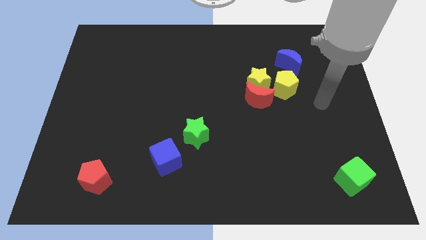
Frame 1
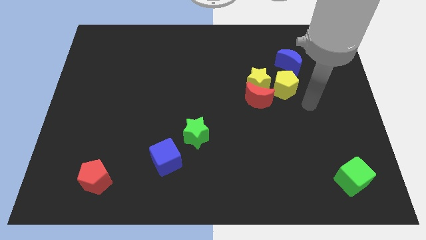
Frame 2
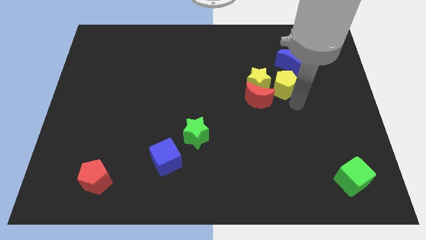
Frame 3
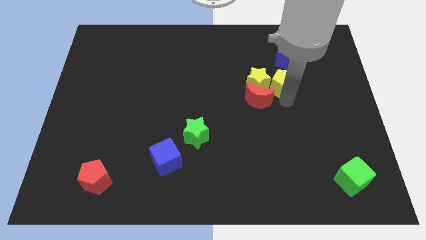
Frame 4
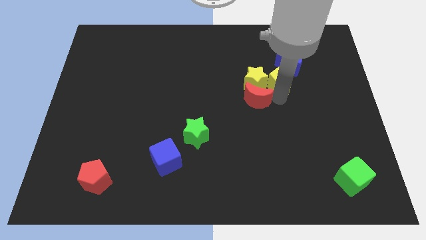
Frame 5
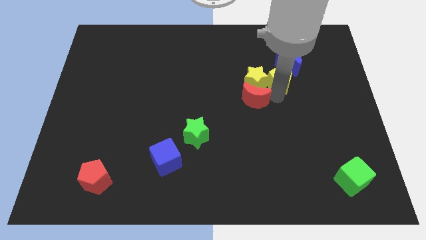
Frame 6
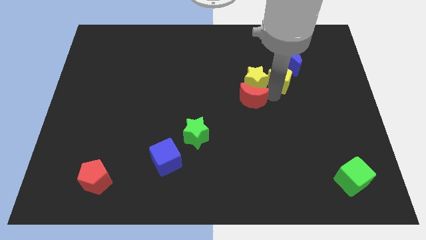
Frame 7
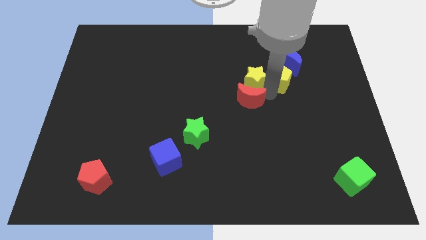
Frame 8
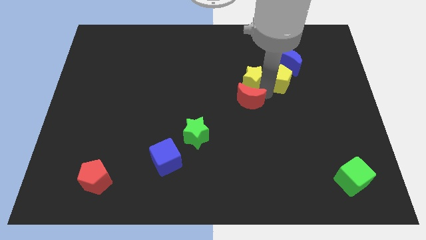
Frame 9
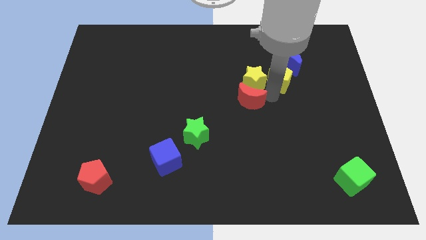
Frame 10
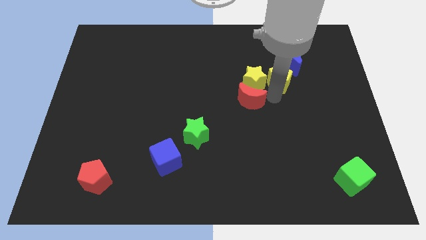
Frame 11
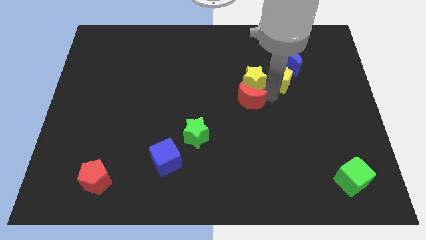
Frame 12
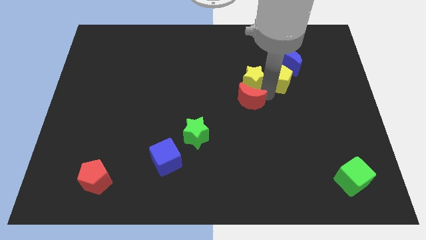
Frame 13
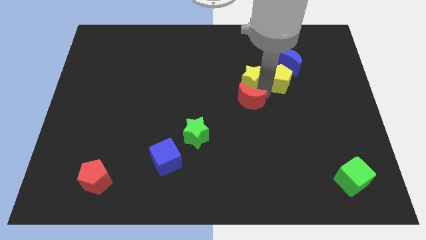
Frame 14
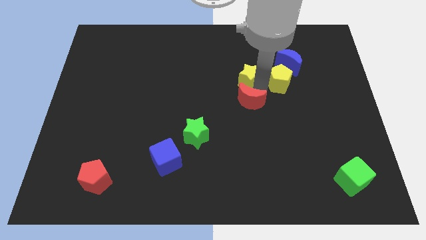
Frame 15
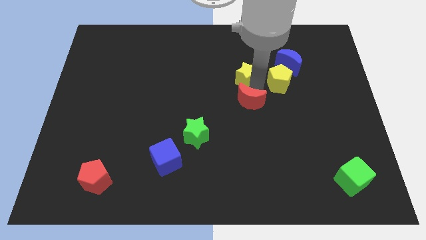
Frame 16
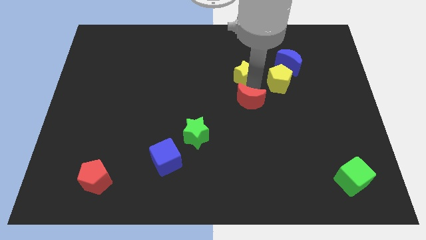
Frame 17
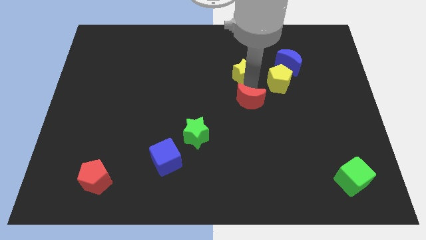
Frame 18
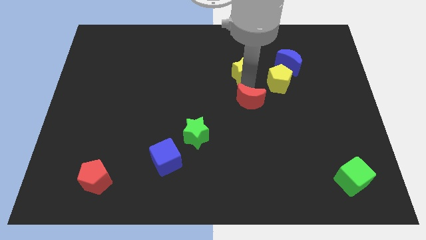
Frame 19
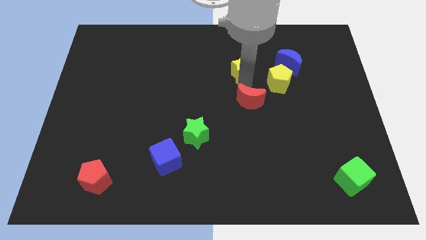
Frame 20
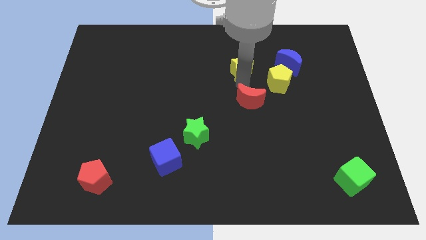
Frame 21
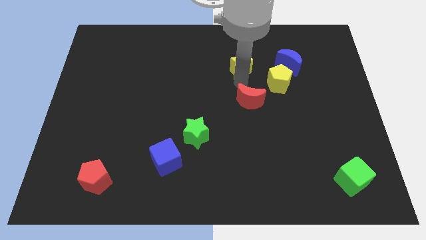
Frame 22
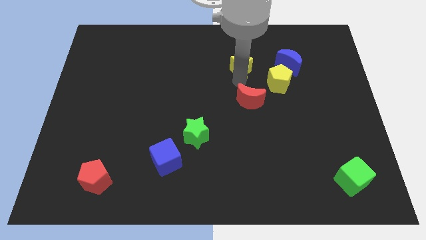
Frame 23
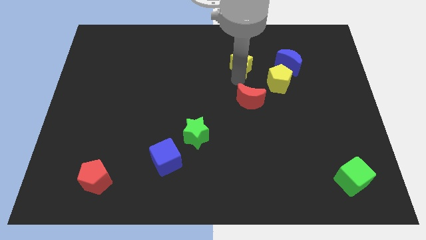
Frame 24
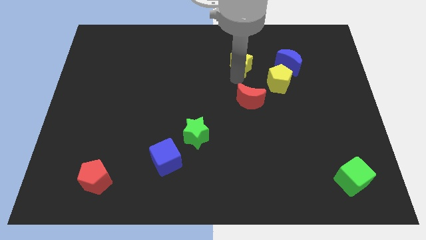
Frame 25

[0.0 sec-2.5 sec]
separate the yellow star from the red moon and yellow pentagon

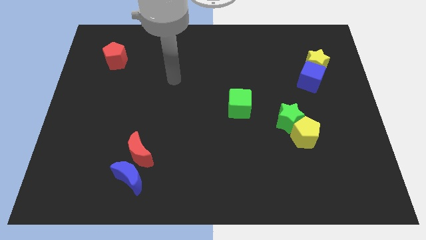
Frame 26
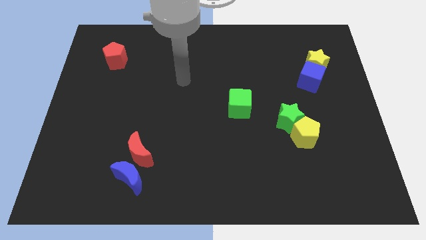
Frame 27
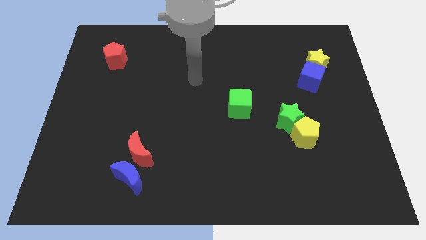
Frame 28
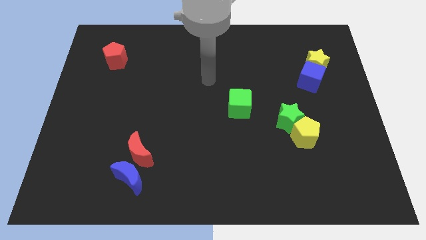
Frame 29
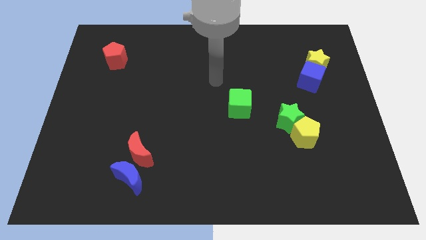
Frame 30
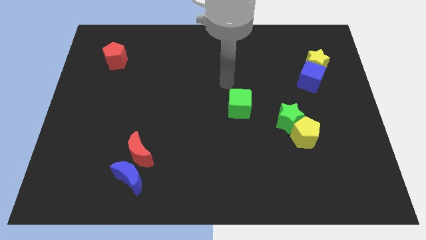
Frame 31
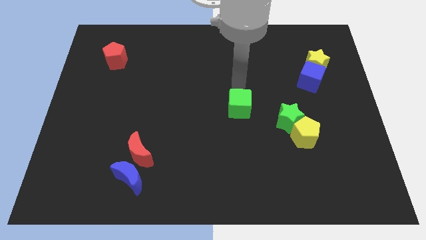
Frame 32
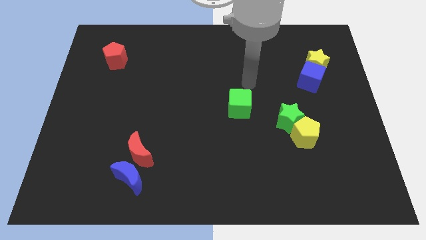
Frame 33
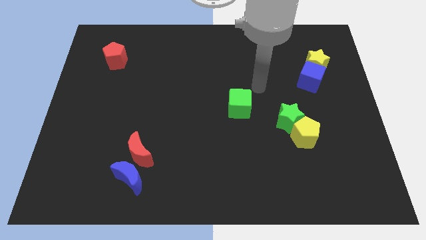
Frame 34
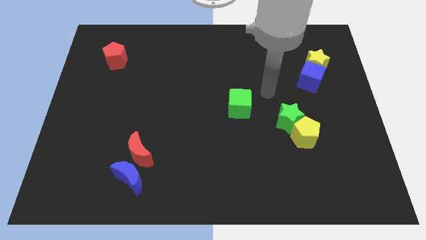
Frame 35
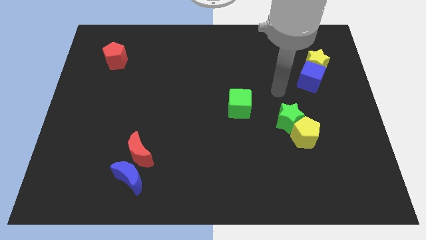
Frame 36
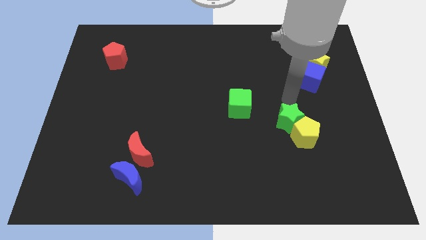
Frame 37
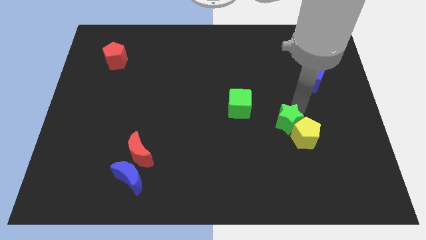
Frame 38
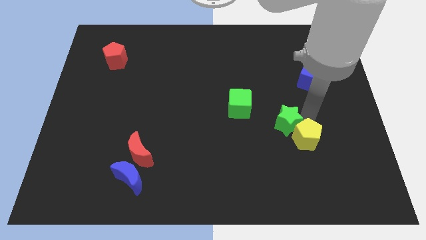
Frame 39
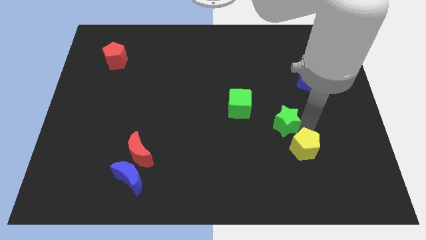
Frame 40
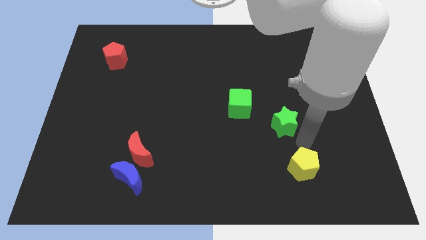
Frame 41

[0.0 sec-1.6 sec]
separate the green star from the yellow pentagon

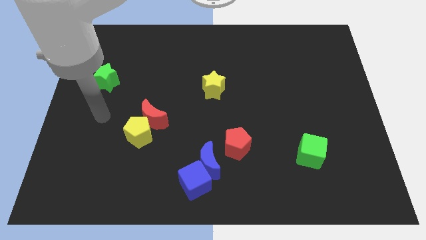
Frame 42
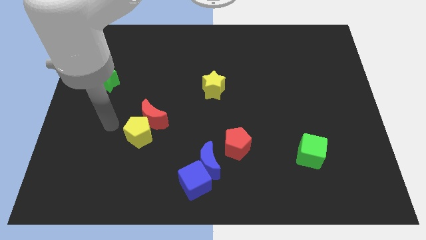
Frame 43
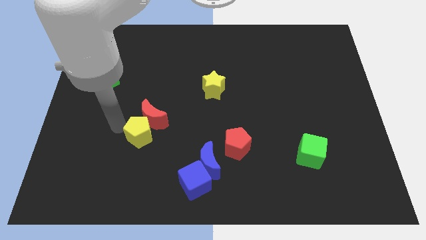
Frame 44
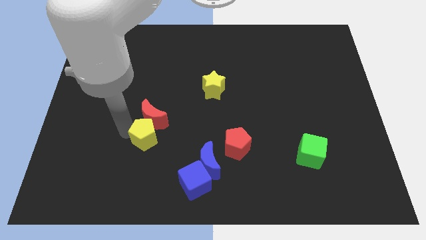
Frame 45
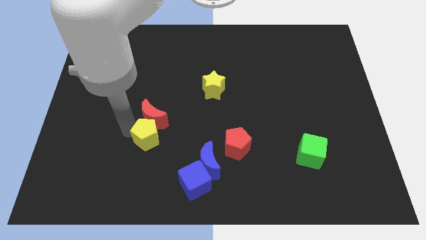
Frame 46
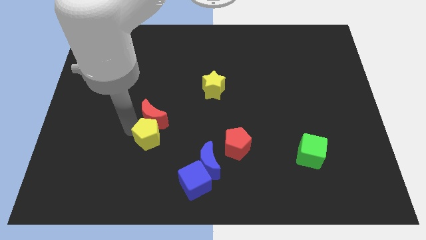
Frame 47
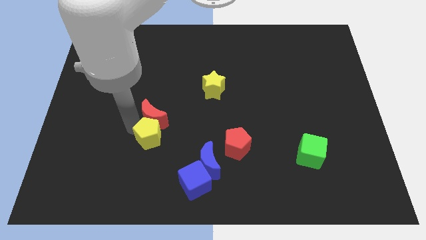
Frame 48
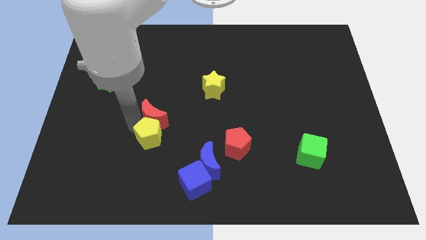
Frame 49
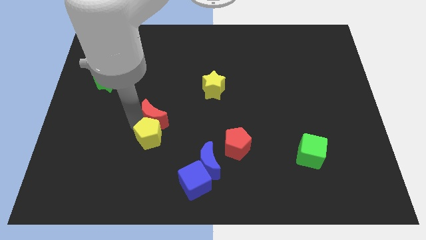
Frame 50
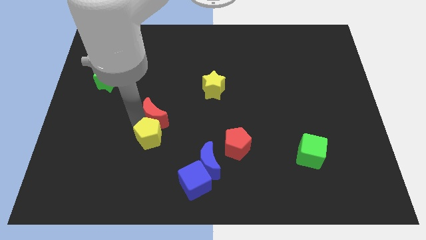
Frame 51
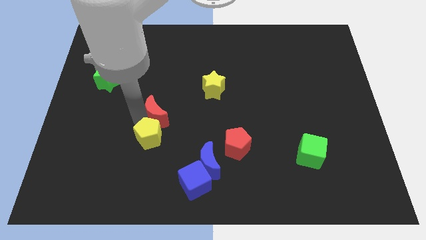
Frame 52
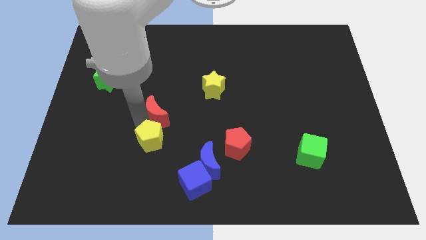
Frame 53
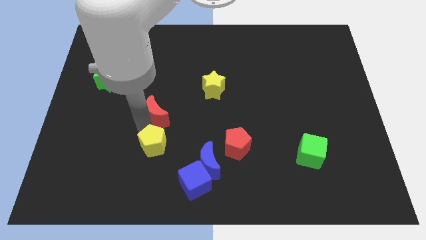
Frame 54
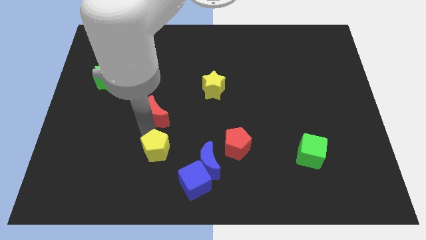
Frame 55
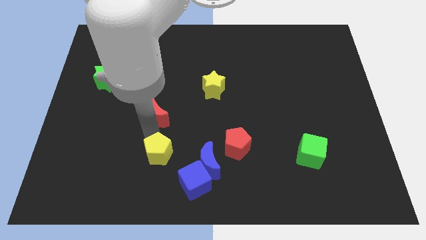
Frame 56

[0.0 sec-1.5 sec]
separate the red moon from the yellow pentagon

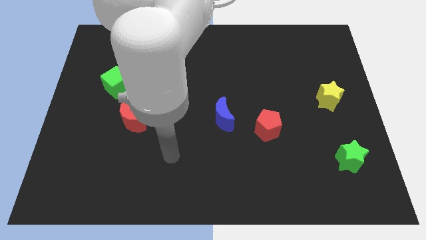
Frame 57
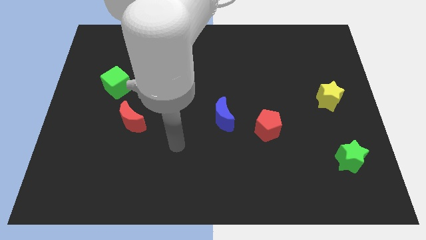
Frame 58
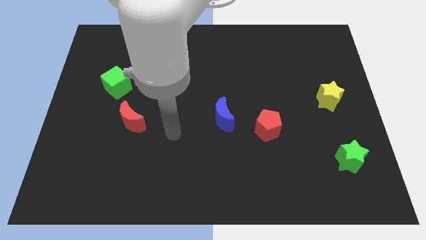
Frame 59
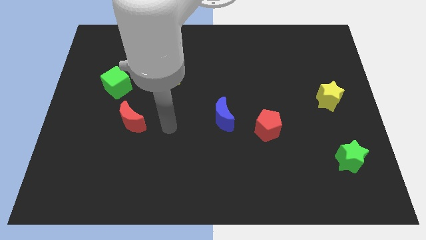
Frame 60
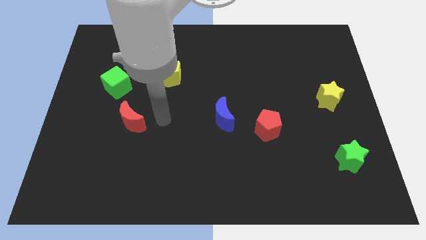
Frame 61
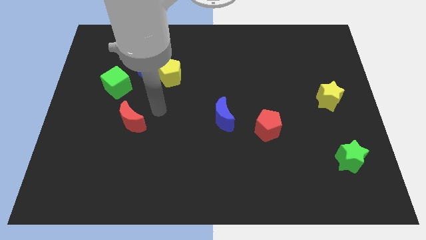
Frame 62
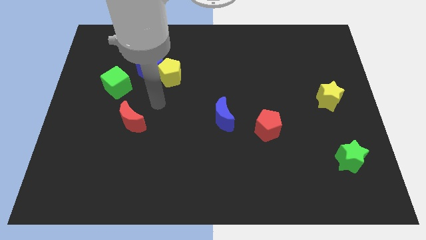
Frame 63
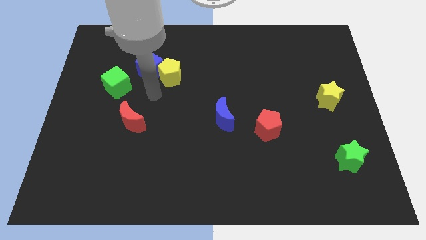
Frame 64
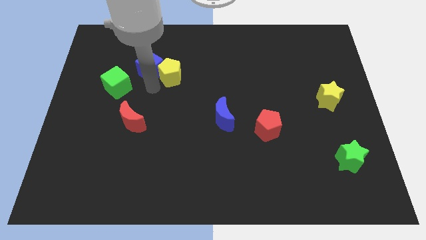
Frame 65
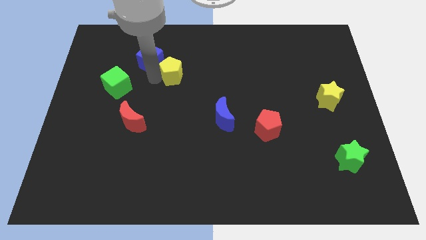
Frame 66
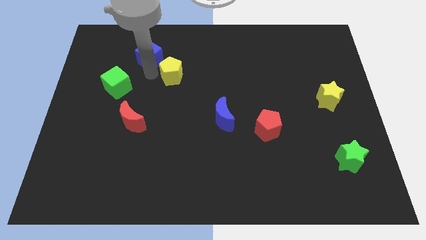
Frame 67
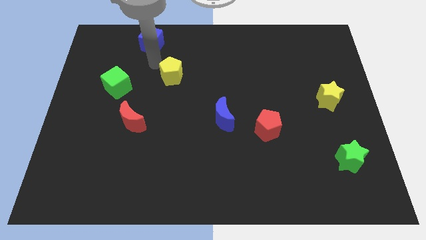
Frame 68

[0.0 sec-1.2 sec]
move the yellow pentagon away from the blue cube

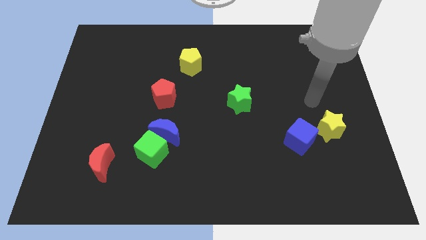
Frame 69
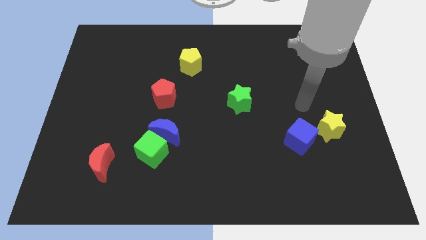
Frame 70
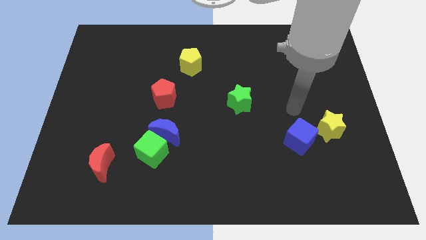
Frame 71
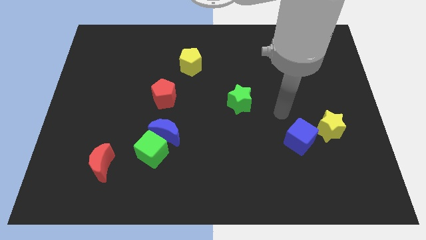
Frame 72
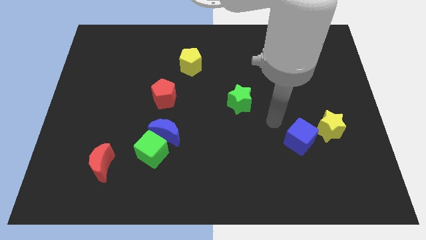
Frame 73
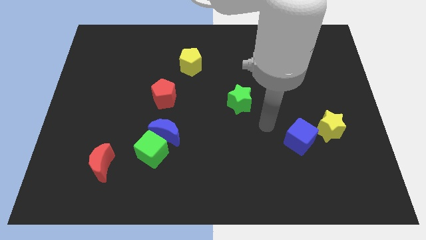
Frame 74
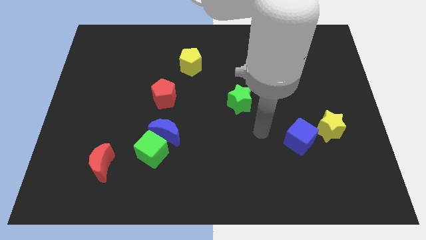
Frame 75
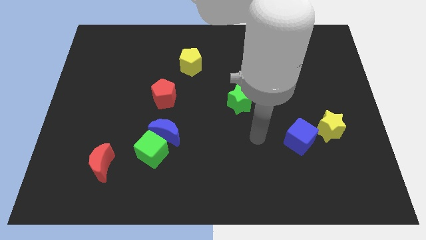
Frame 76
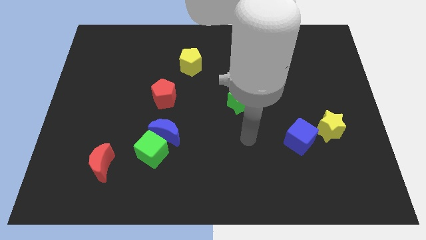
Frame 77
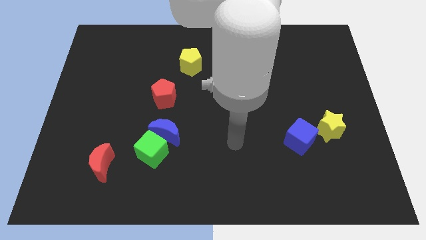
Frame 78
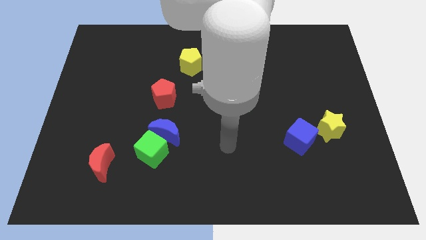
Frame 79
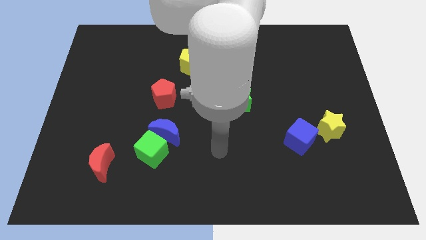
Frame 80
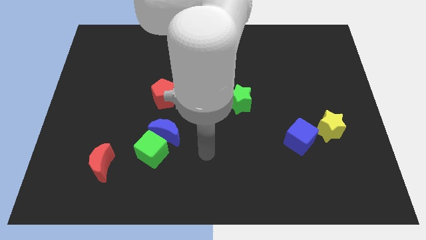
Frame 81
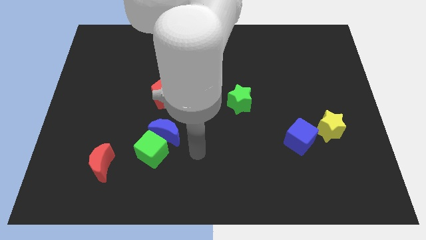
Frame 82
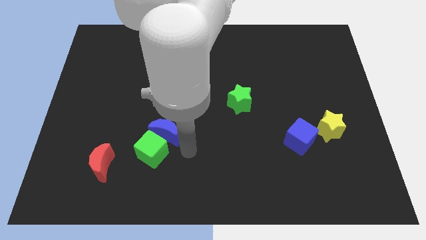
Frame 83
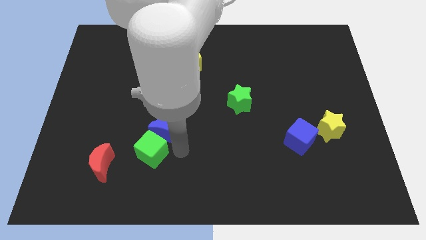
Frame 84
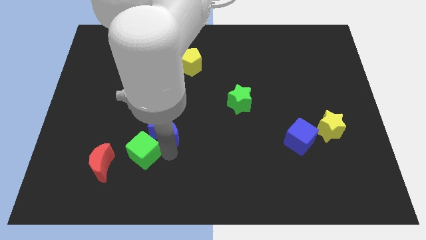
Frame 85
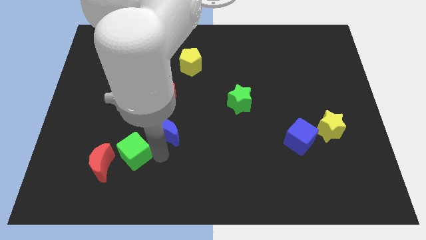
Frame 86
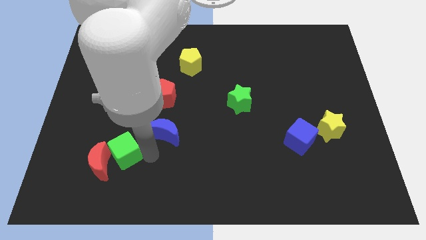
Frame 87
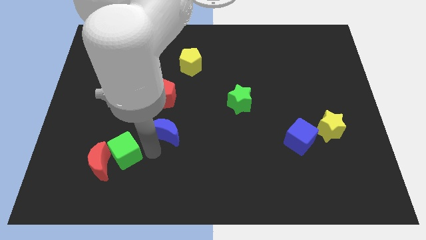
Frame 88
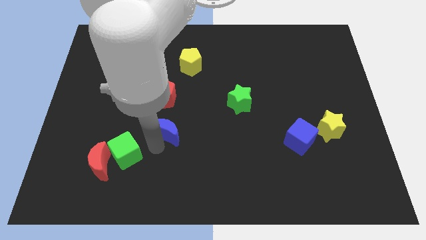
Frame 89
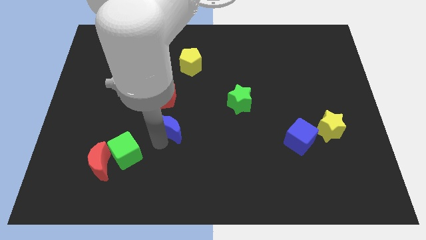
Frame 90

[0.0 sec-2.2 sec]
pull the blue moon apart from the green cube

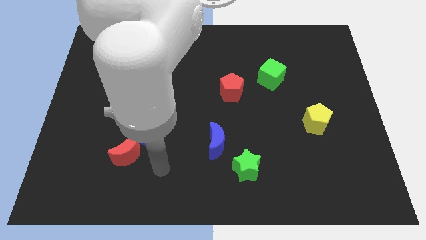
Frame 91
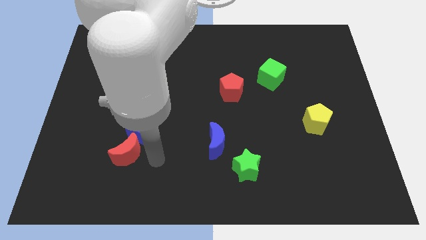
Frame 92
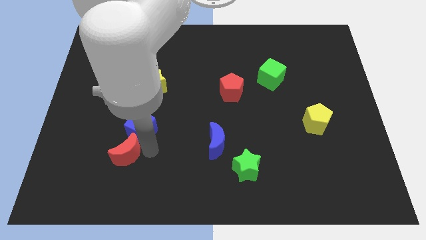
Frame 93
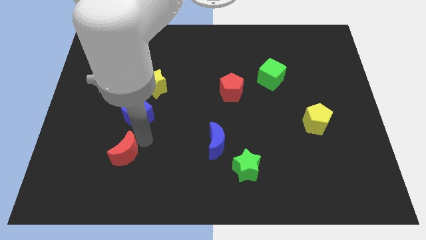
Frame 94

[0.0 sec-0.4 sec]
separate the red moon from the blue cube
